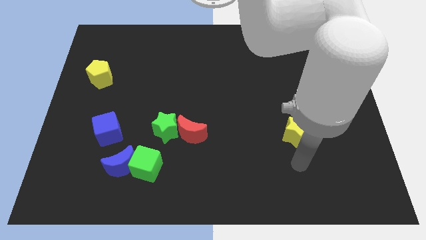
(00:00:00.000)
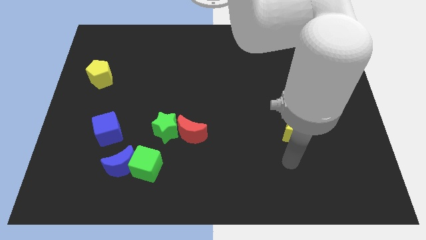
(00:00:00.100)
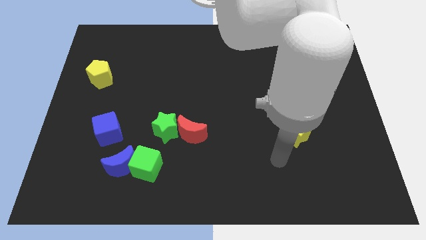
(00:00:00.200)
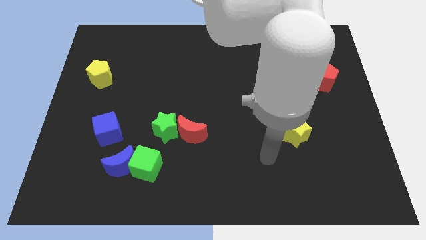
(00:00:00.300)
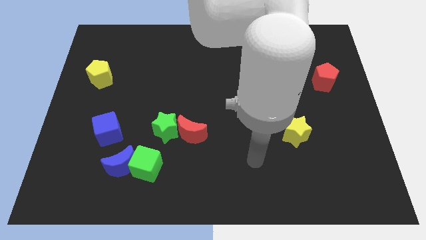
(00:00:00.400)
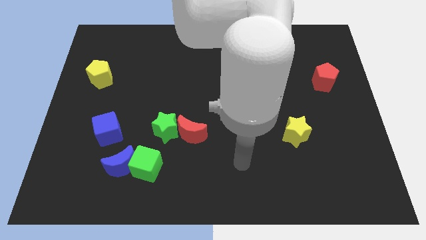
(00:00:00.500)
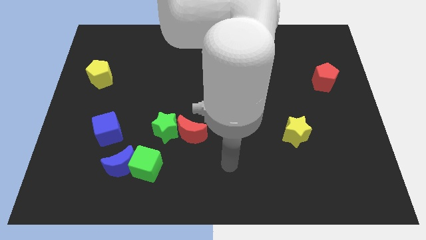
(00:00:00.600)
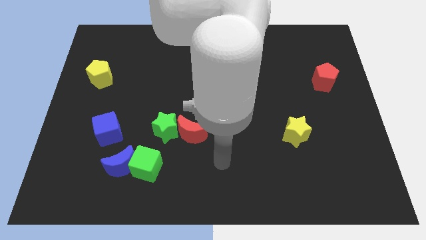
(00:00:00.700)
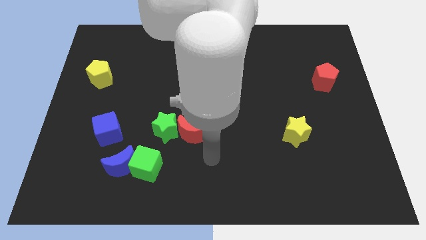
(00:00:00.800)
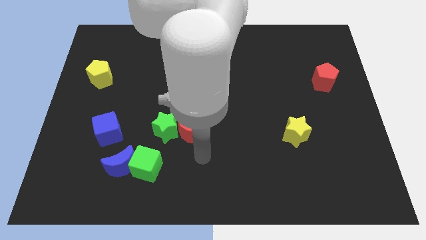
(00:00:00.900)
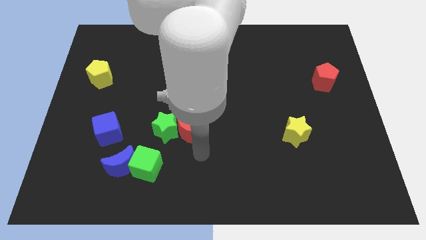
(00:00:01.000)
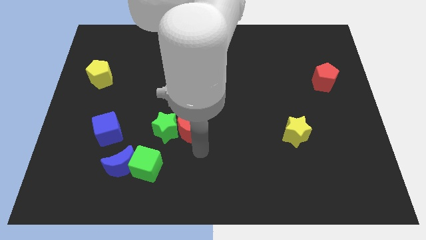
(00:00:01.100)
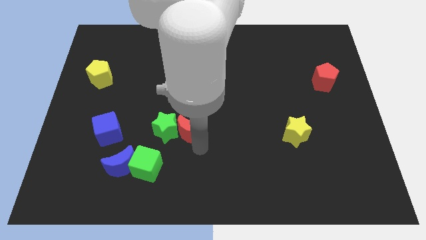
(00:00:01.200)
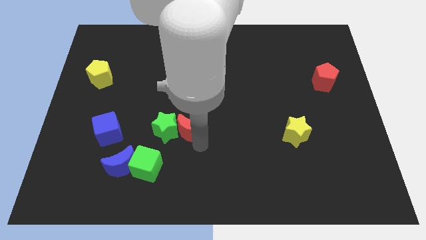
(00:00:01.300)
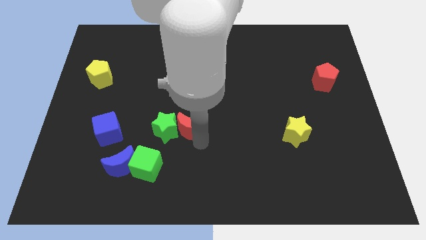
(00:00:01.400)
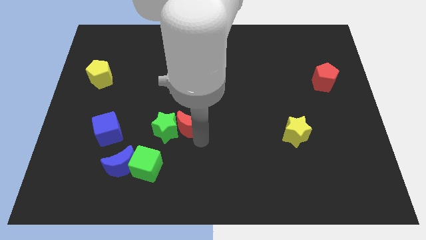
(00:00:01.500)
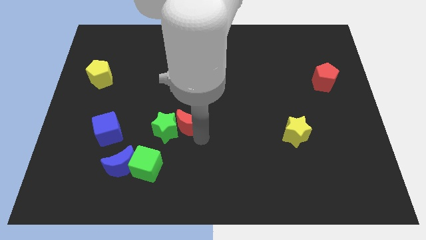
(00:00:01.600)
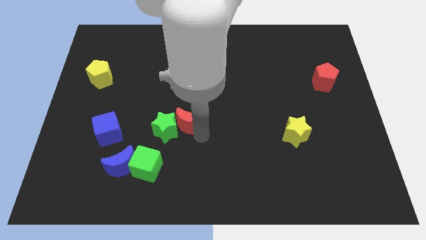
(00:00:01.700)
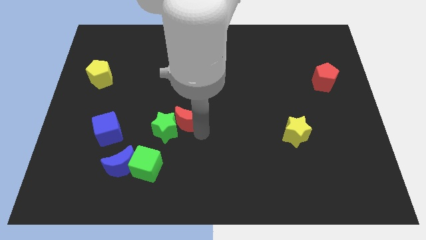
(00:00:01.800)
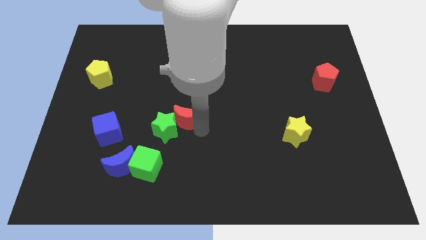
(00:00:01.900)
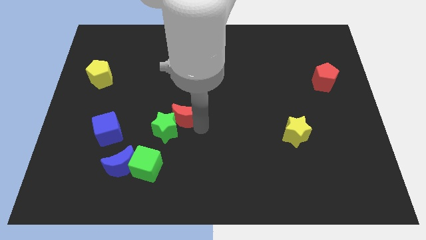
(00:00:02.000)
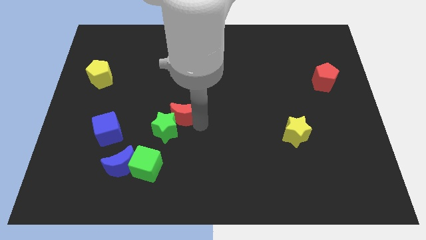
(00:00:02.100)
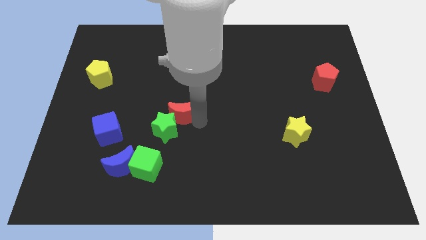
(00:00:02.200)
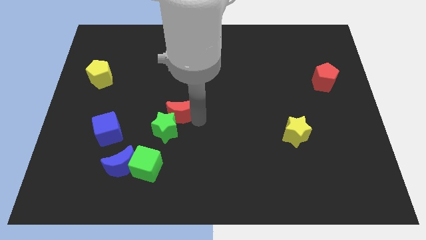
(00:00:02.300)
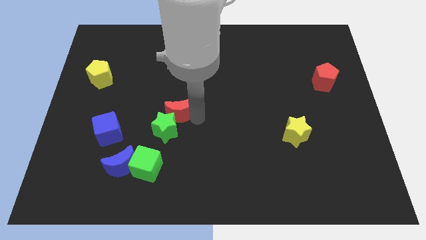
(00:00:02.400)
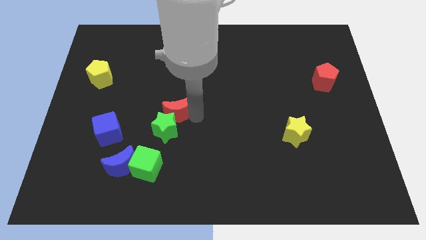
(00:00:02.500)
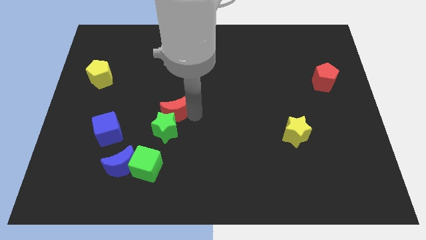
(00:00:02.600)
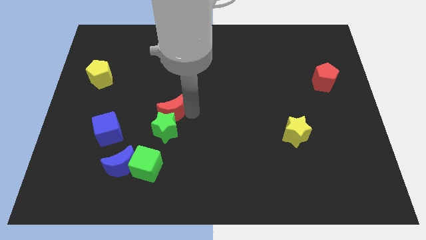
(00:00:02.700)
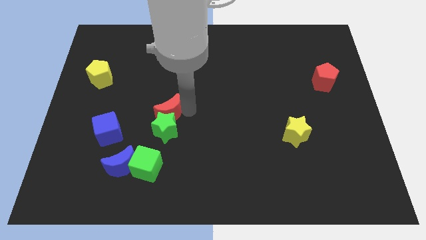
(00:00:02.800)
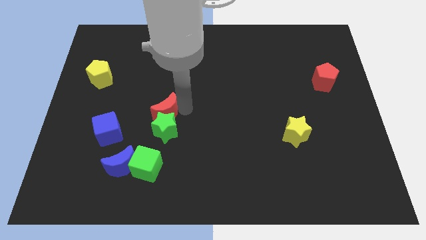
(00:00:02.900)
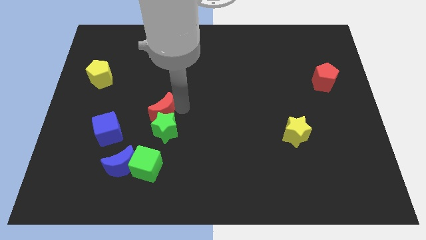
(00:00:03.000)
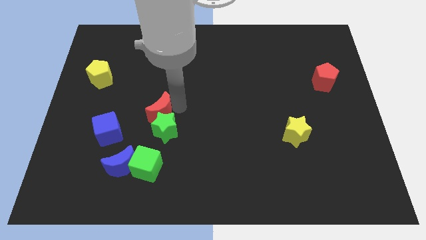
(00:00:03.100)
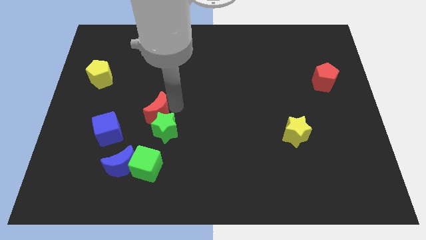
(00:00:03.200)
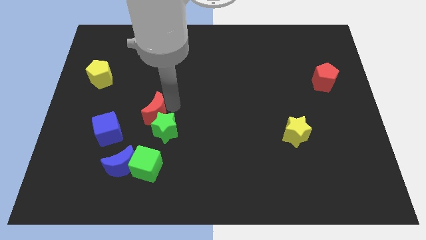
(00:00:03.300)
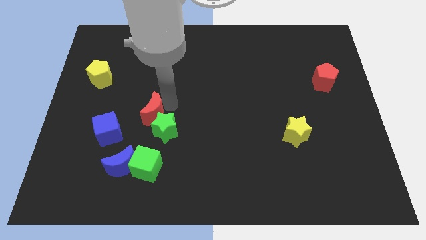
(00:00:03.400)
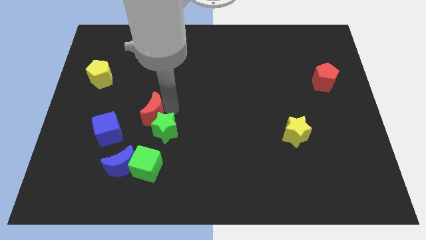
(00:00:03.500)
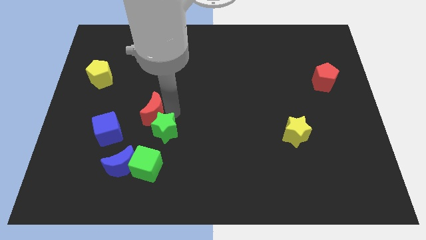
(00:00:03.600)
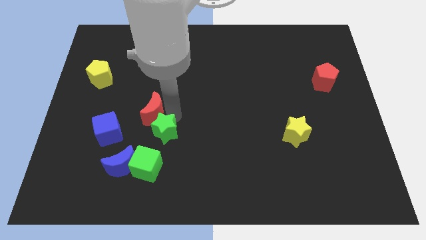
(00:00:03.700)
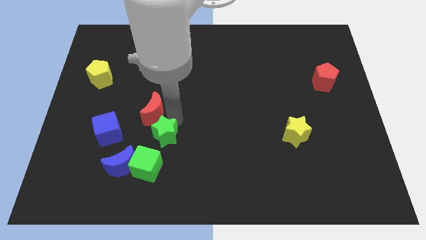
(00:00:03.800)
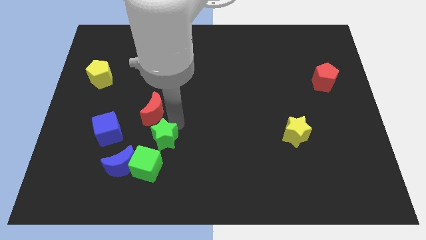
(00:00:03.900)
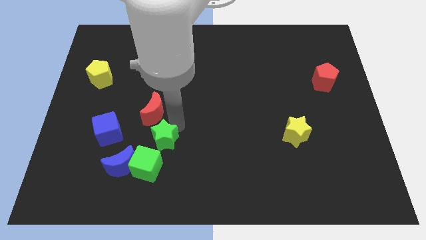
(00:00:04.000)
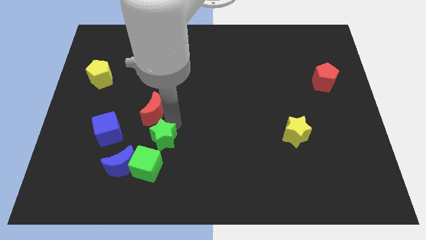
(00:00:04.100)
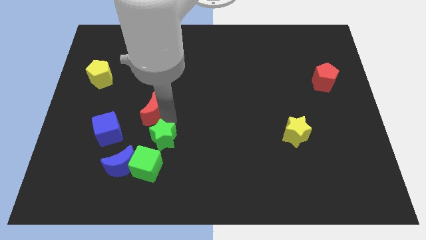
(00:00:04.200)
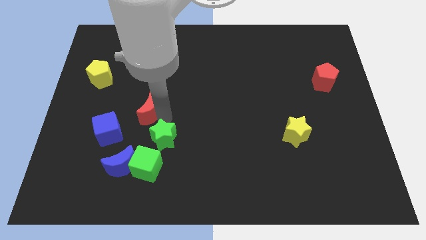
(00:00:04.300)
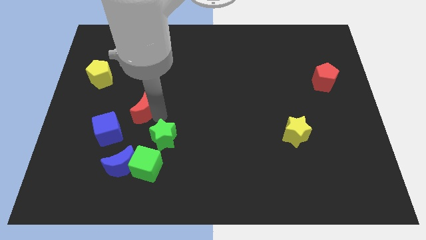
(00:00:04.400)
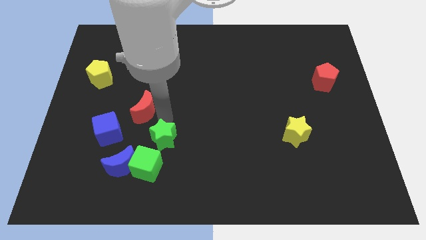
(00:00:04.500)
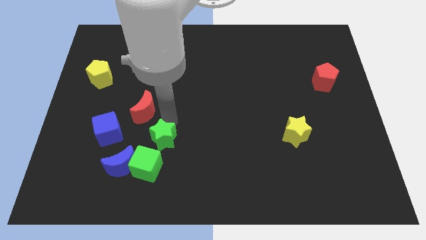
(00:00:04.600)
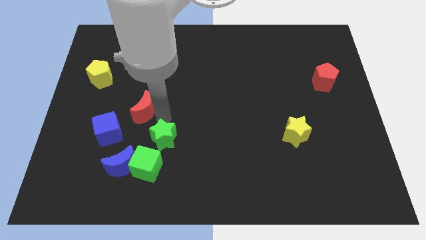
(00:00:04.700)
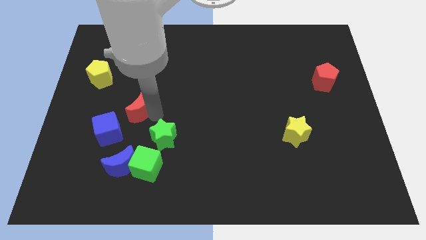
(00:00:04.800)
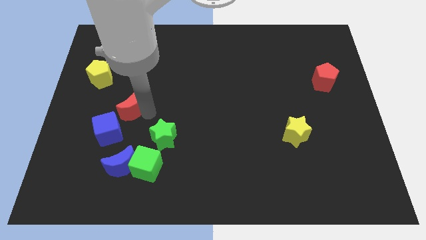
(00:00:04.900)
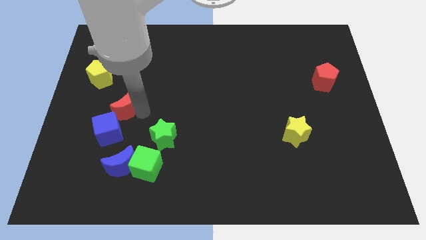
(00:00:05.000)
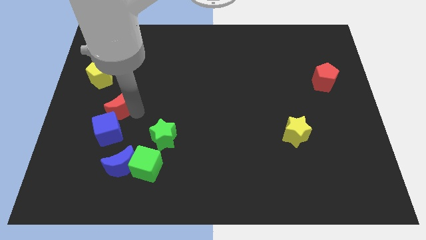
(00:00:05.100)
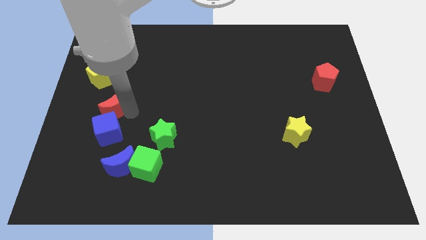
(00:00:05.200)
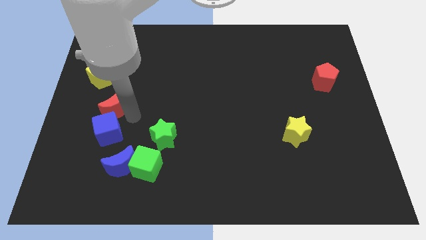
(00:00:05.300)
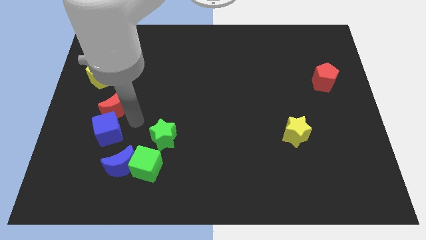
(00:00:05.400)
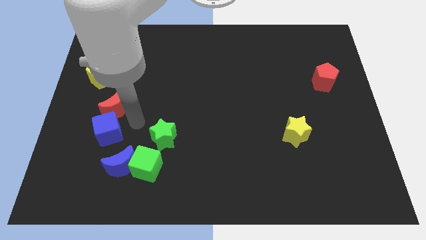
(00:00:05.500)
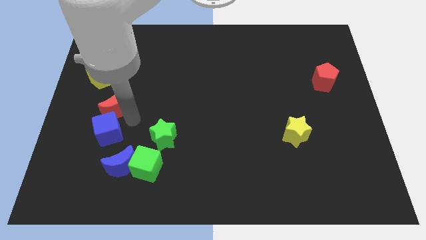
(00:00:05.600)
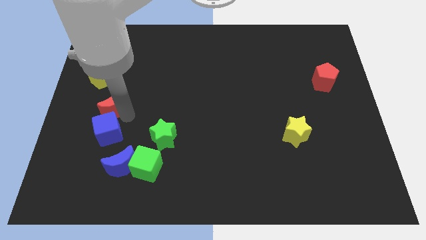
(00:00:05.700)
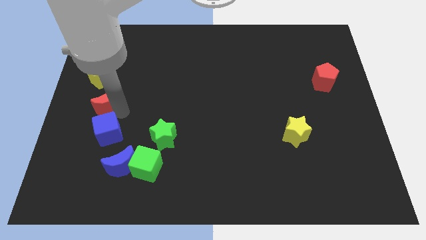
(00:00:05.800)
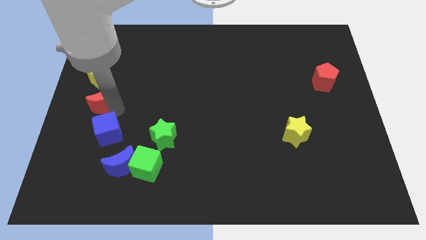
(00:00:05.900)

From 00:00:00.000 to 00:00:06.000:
put the red moon to the left side of the board

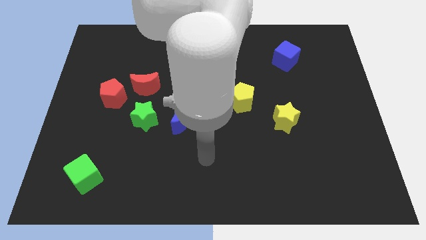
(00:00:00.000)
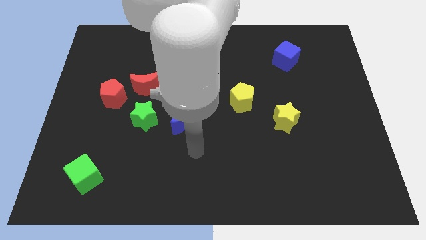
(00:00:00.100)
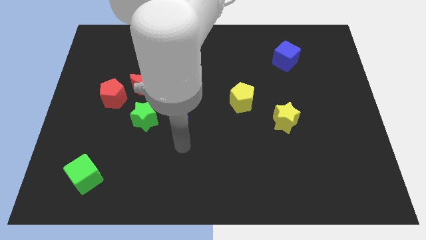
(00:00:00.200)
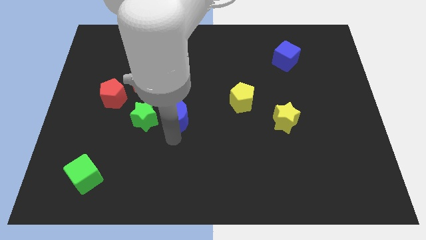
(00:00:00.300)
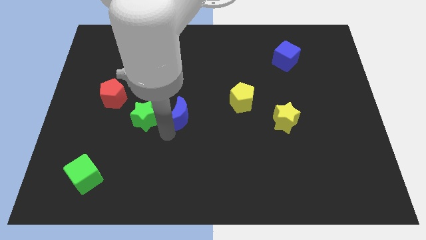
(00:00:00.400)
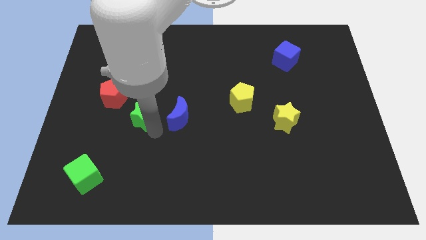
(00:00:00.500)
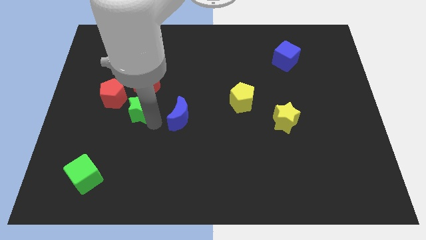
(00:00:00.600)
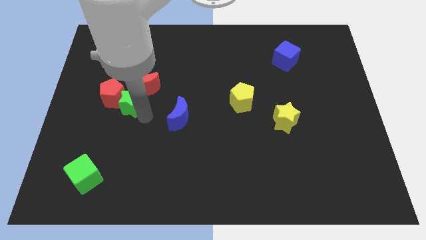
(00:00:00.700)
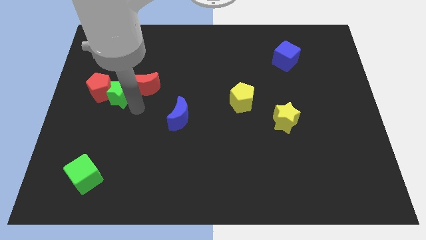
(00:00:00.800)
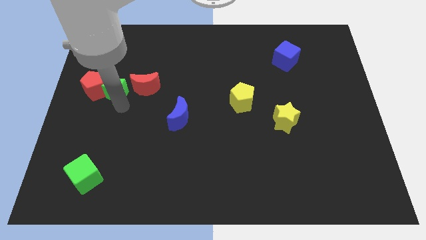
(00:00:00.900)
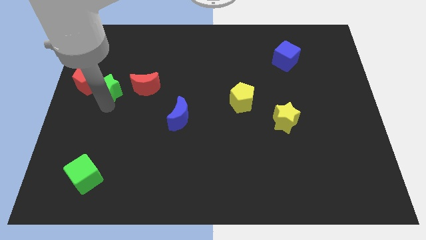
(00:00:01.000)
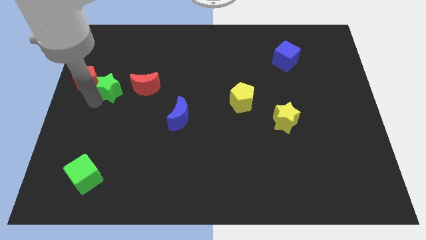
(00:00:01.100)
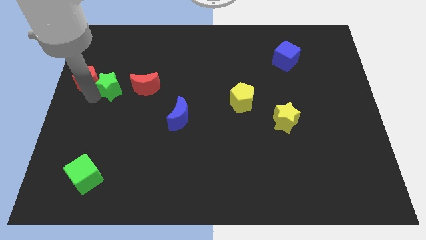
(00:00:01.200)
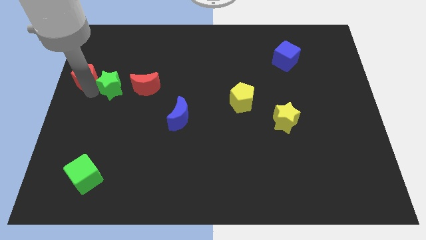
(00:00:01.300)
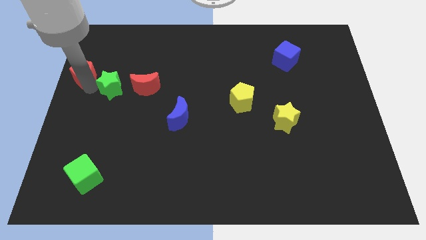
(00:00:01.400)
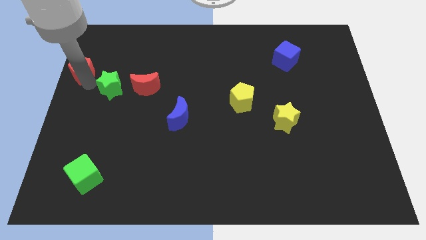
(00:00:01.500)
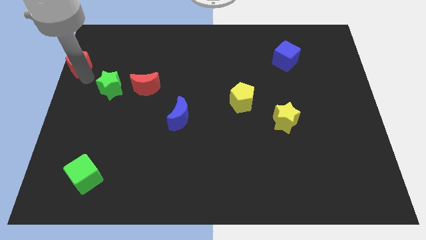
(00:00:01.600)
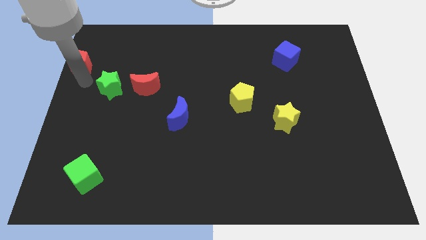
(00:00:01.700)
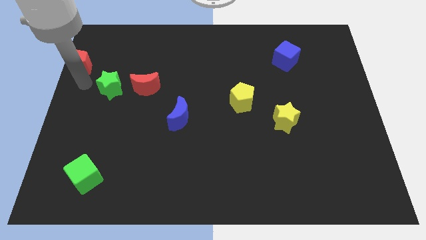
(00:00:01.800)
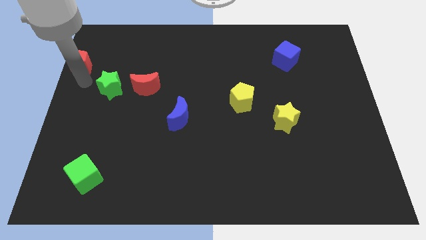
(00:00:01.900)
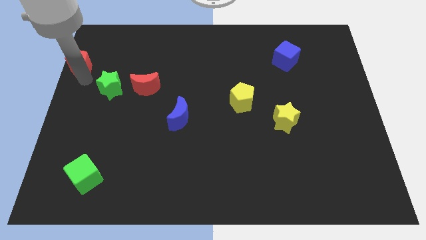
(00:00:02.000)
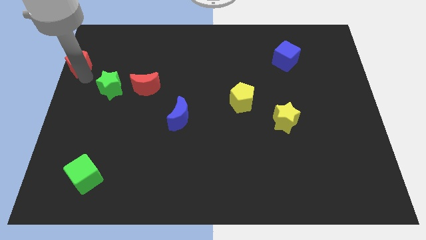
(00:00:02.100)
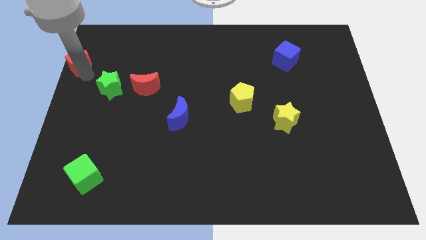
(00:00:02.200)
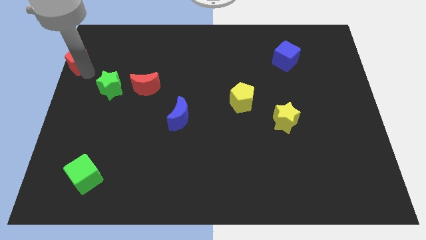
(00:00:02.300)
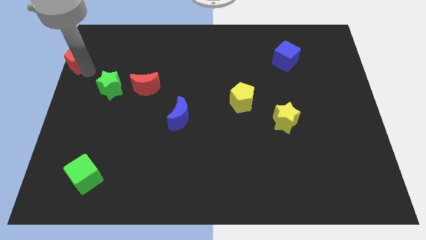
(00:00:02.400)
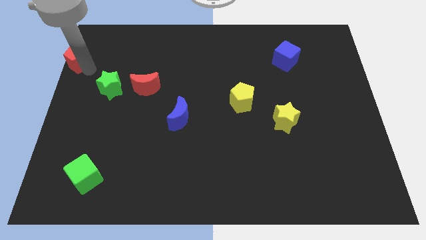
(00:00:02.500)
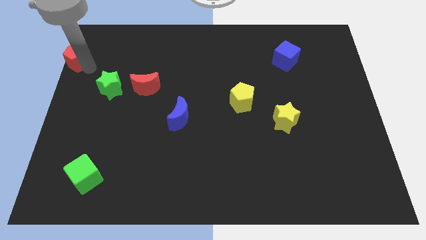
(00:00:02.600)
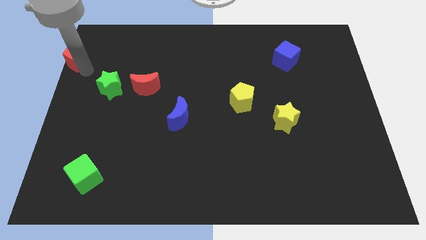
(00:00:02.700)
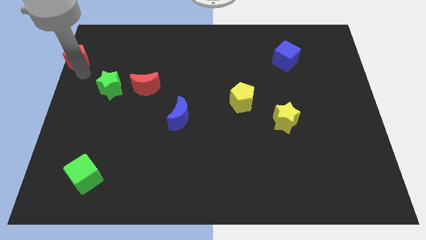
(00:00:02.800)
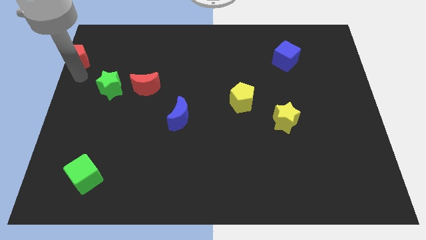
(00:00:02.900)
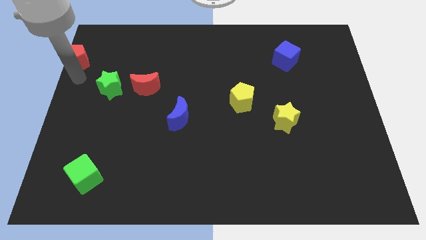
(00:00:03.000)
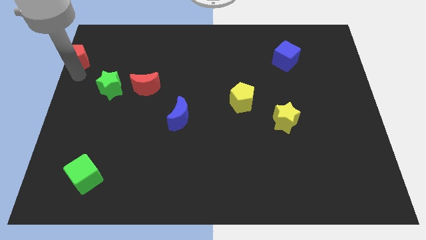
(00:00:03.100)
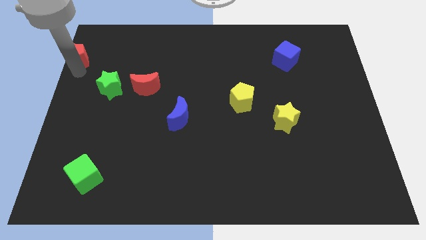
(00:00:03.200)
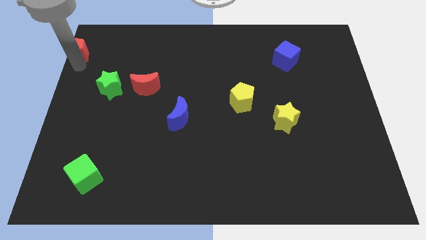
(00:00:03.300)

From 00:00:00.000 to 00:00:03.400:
push the red pentagon to the upper left corner
